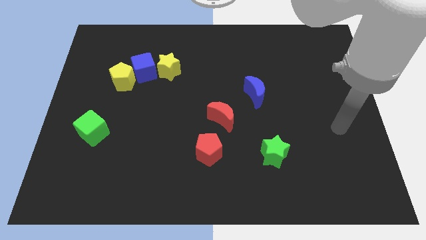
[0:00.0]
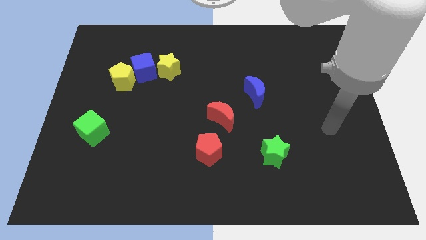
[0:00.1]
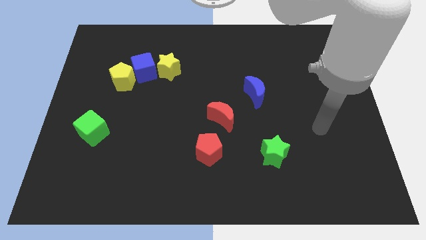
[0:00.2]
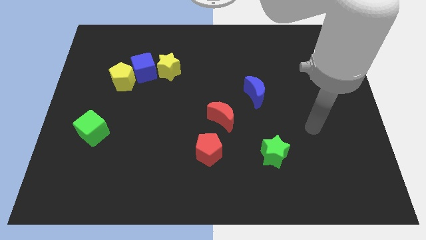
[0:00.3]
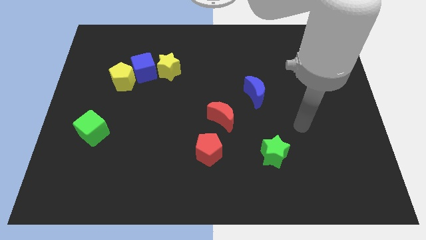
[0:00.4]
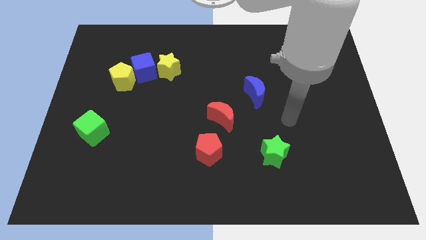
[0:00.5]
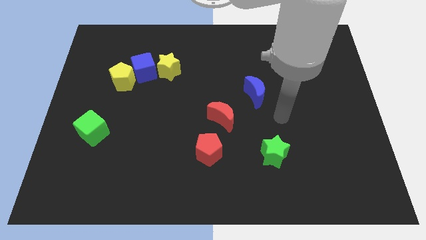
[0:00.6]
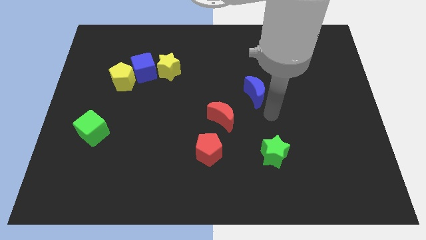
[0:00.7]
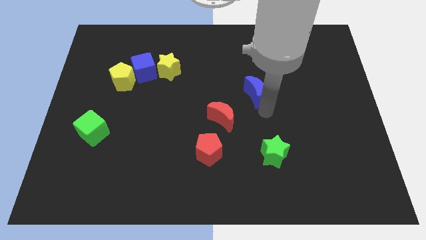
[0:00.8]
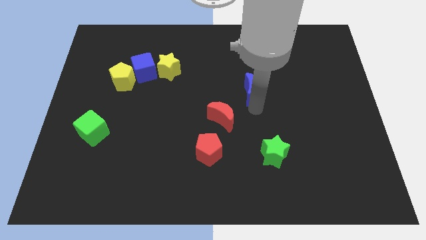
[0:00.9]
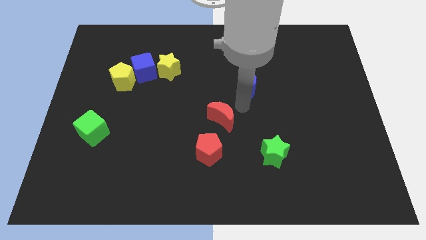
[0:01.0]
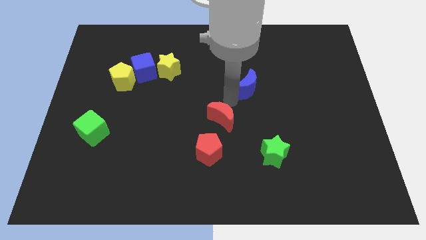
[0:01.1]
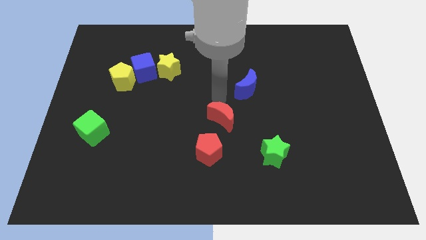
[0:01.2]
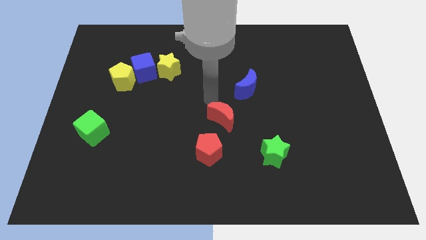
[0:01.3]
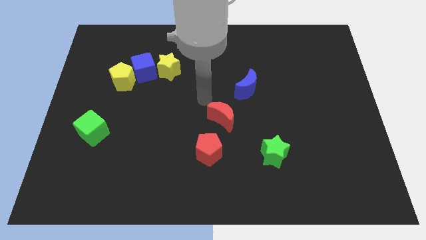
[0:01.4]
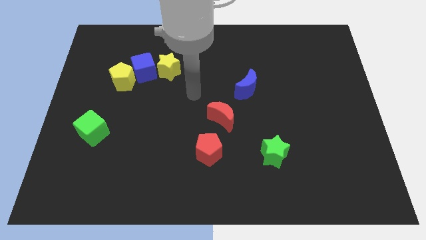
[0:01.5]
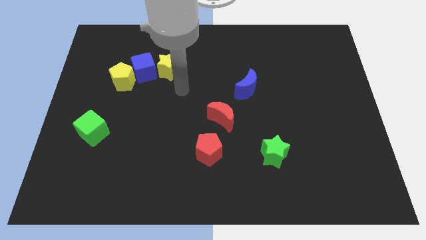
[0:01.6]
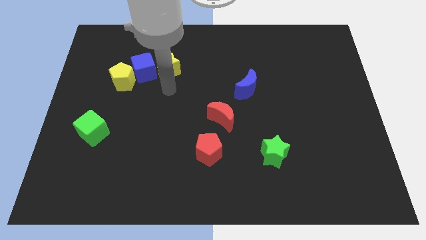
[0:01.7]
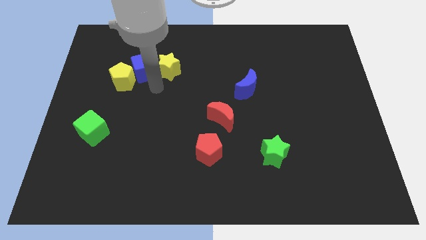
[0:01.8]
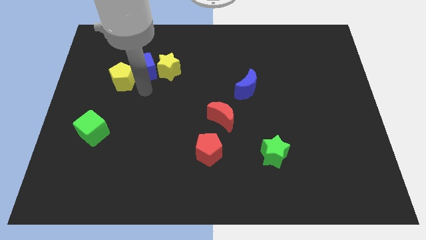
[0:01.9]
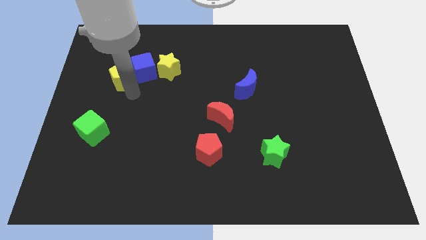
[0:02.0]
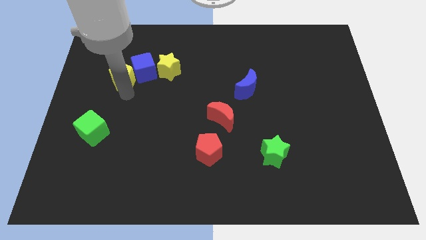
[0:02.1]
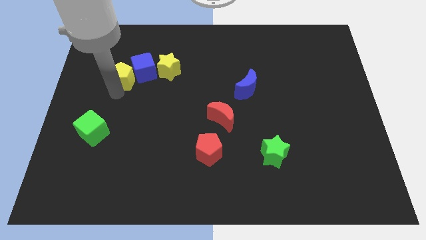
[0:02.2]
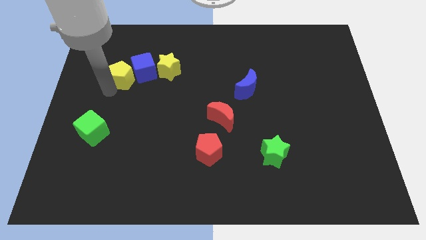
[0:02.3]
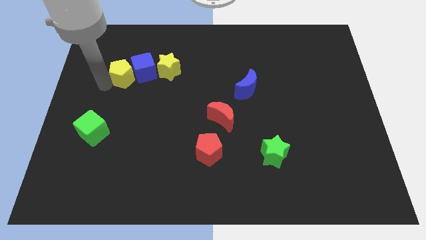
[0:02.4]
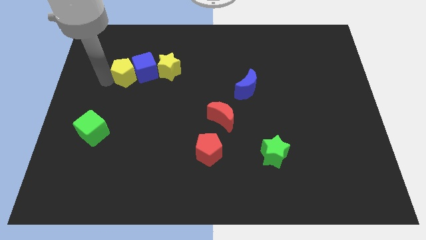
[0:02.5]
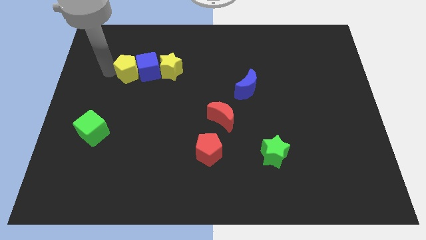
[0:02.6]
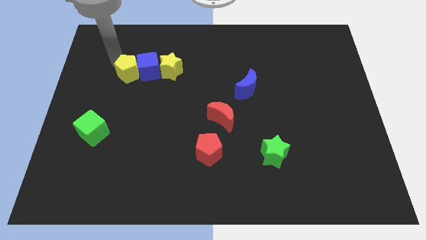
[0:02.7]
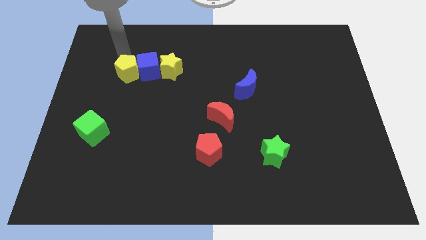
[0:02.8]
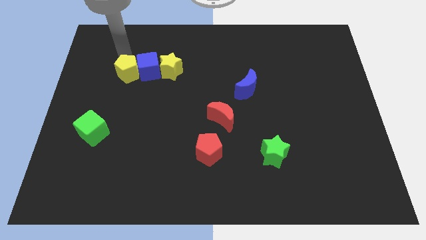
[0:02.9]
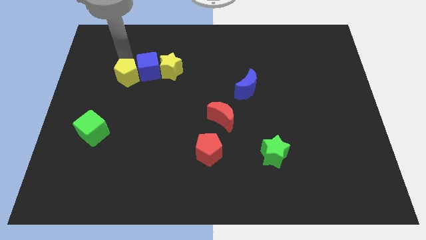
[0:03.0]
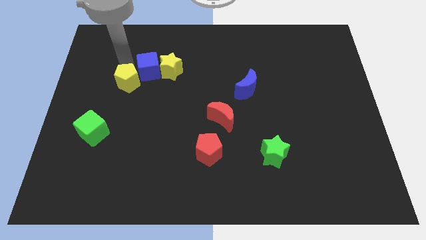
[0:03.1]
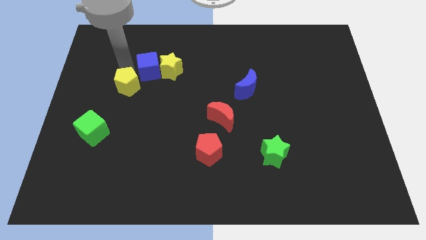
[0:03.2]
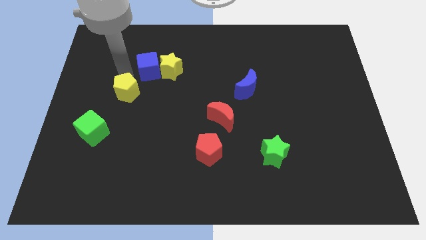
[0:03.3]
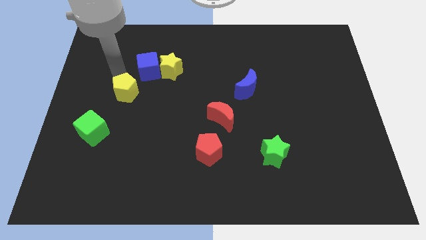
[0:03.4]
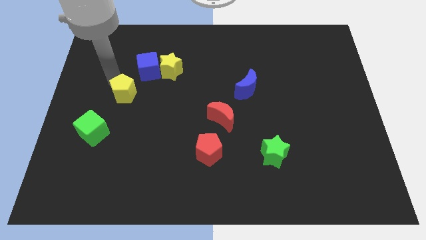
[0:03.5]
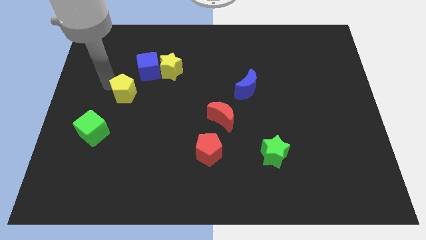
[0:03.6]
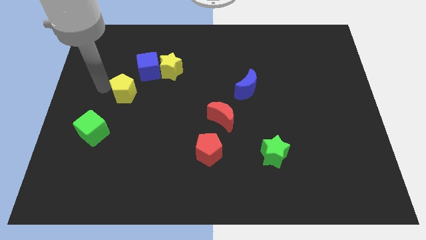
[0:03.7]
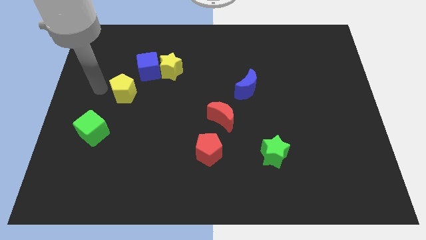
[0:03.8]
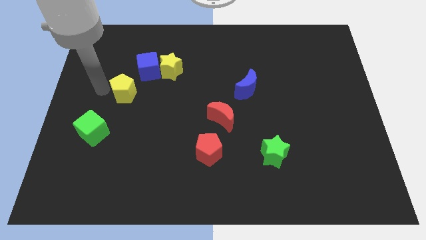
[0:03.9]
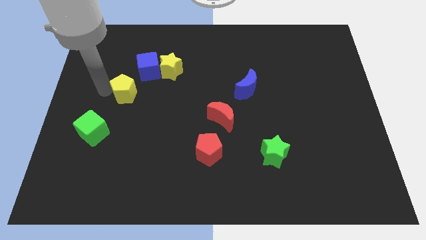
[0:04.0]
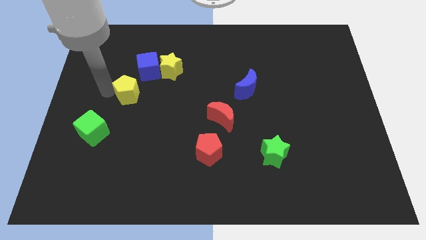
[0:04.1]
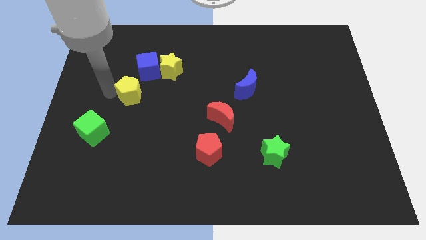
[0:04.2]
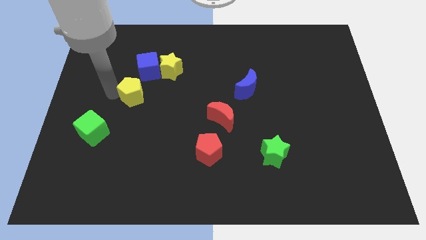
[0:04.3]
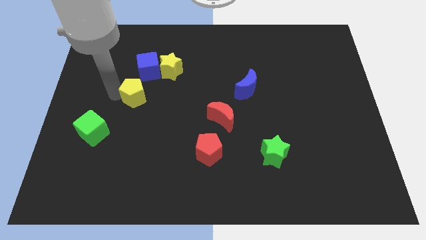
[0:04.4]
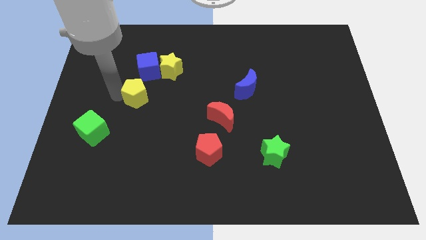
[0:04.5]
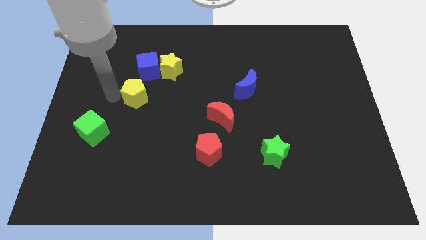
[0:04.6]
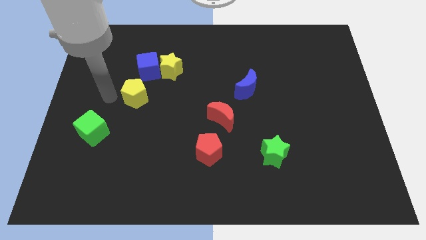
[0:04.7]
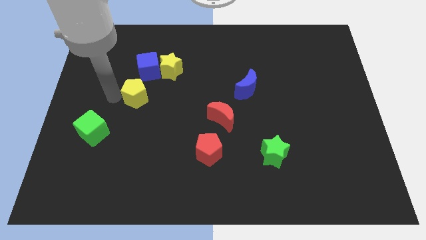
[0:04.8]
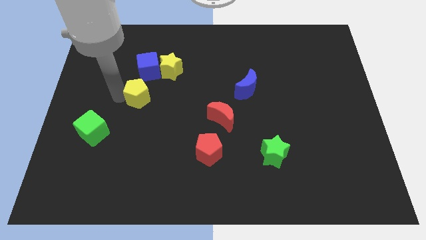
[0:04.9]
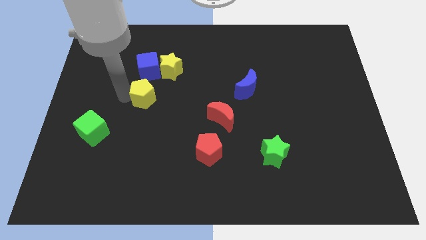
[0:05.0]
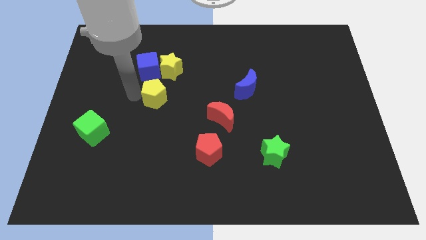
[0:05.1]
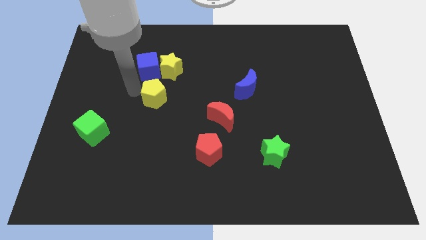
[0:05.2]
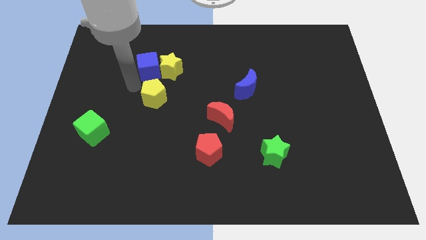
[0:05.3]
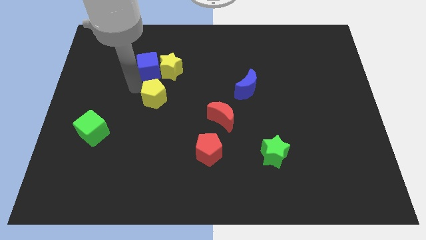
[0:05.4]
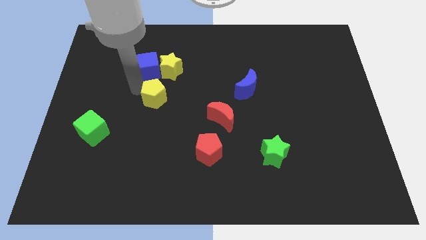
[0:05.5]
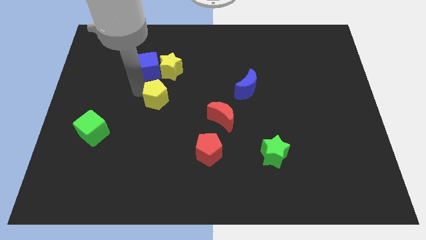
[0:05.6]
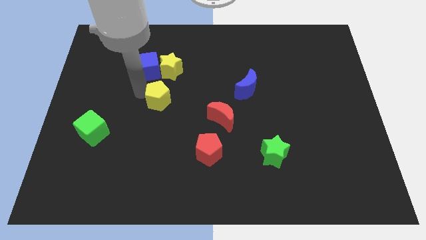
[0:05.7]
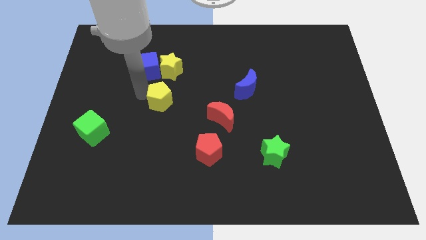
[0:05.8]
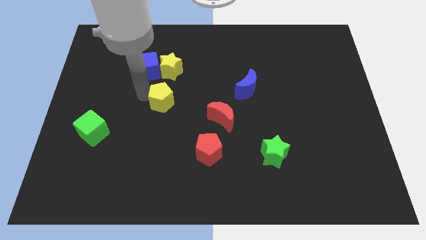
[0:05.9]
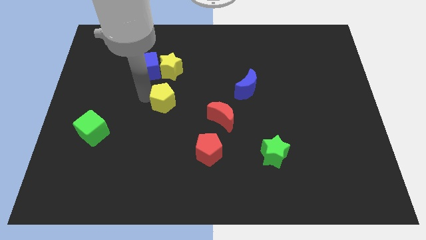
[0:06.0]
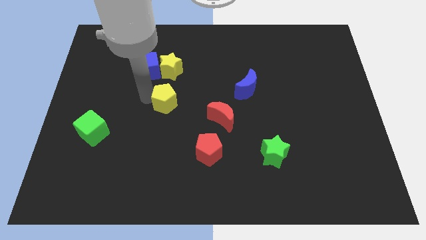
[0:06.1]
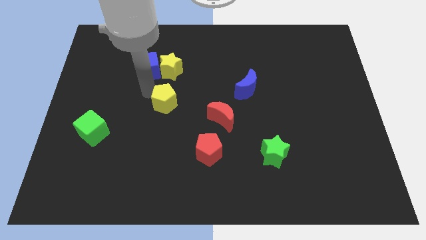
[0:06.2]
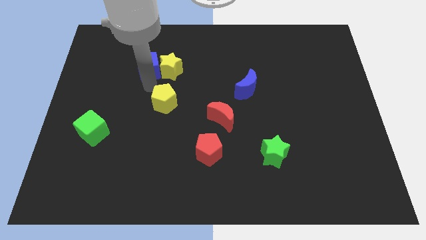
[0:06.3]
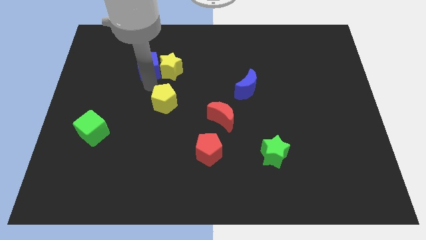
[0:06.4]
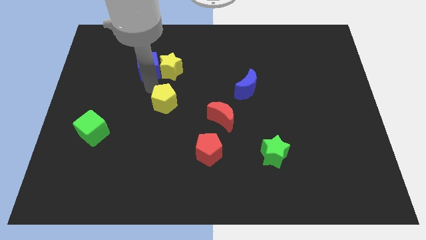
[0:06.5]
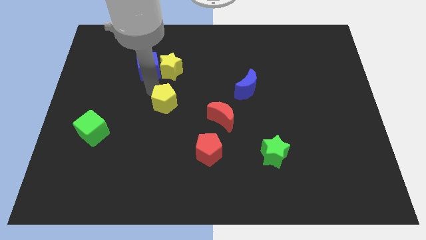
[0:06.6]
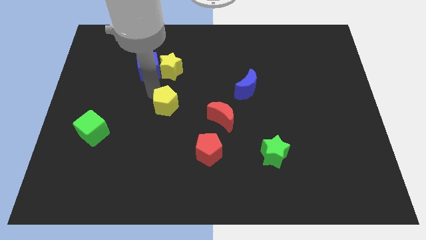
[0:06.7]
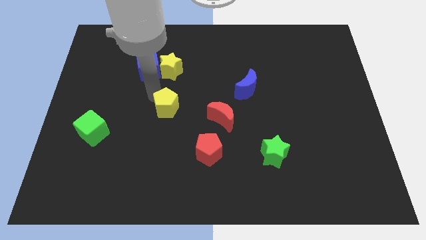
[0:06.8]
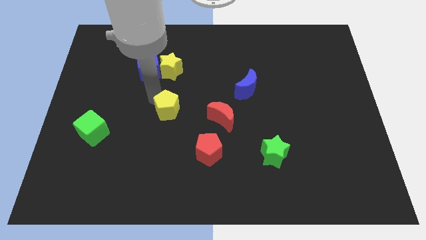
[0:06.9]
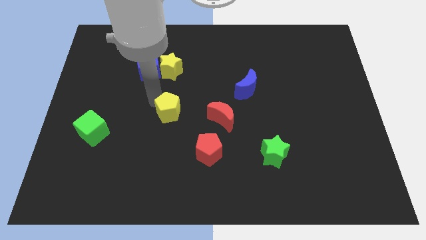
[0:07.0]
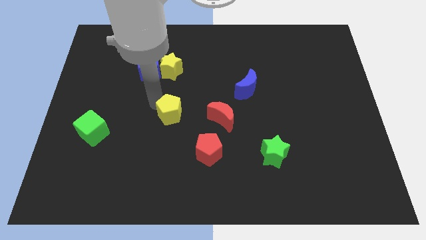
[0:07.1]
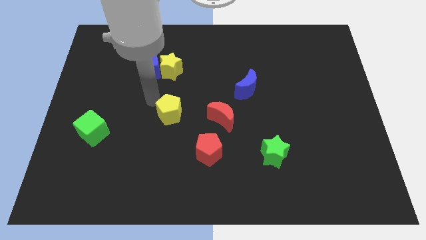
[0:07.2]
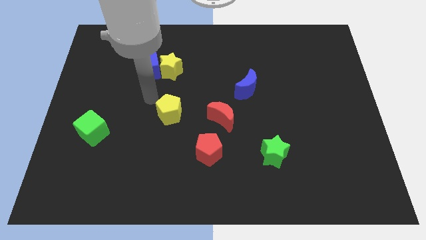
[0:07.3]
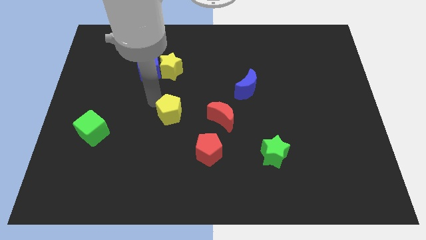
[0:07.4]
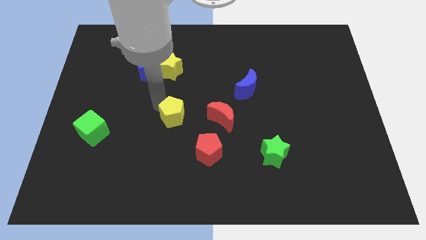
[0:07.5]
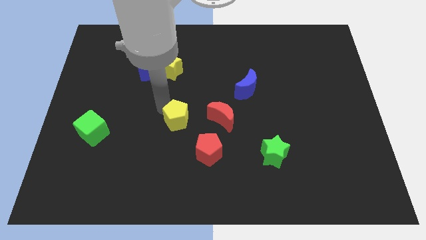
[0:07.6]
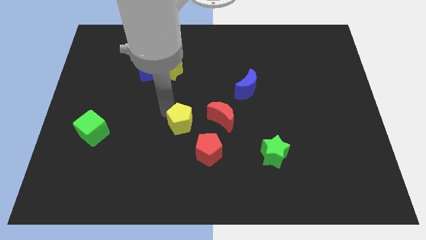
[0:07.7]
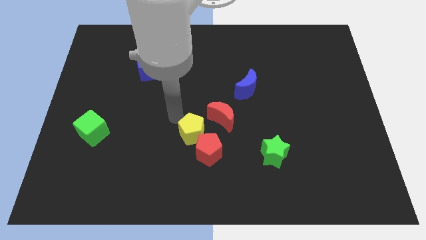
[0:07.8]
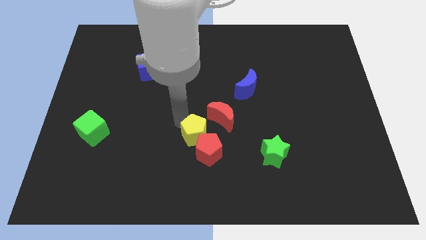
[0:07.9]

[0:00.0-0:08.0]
move the yellow pentagon close to the red pentagon

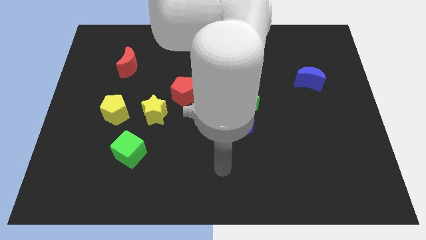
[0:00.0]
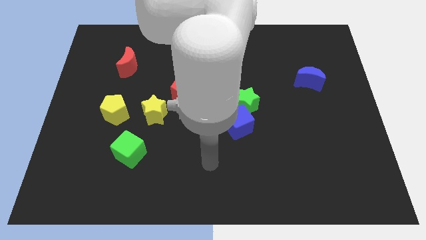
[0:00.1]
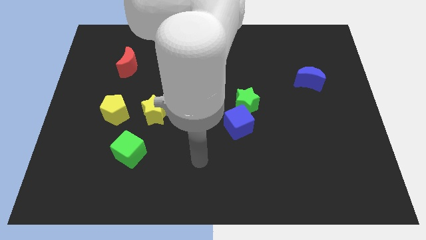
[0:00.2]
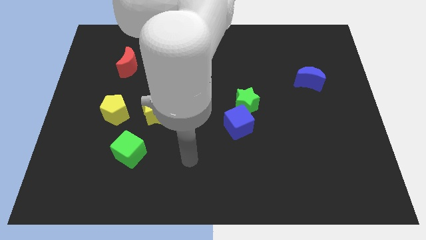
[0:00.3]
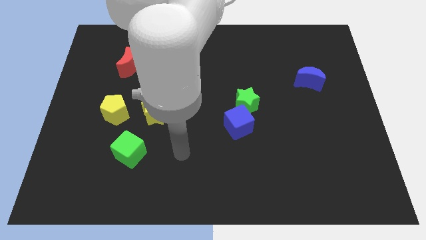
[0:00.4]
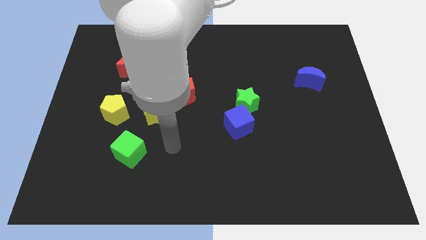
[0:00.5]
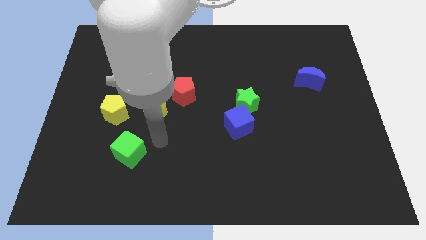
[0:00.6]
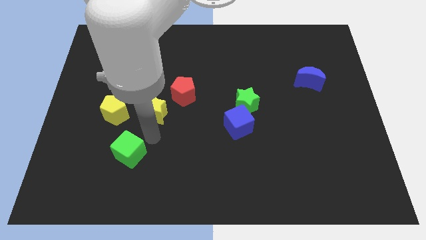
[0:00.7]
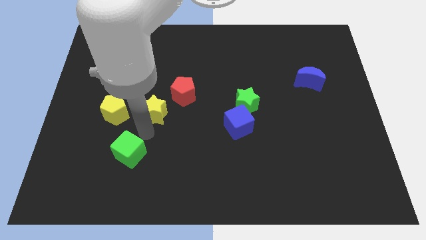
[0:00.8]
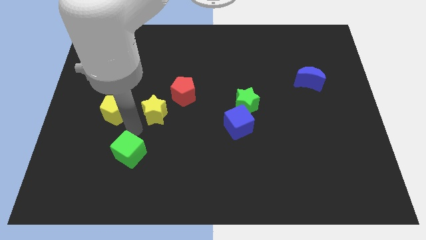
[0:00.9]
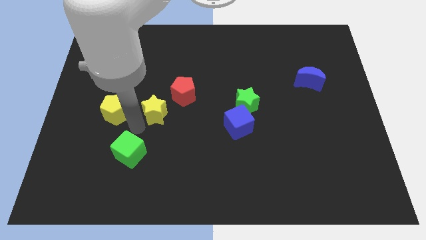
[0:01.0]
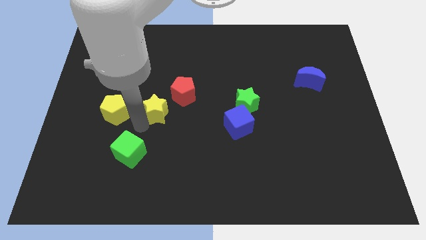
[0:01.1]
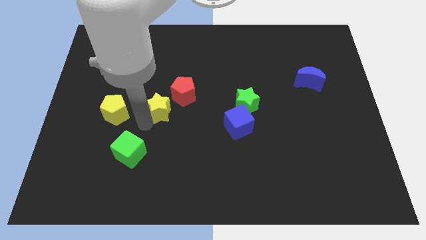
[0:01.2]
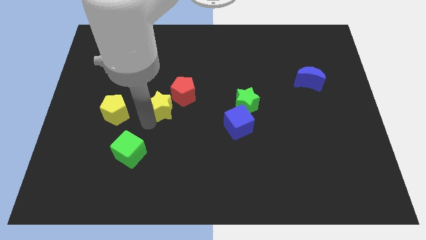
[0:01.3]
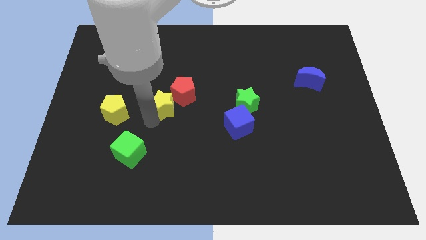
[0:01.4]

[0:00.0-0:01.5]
slide the yellow star next to the red pentagon
